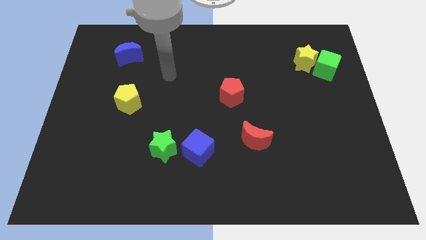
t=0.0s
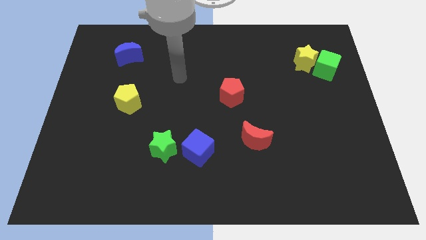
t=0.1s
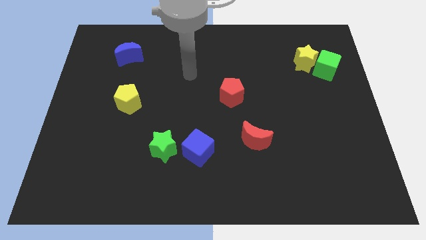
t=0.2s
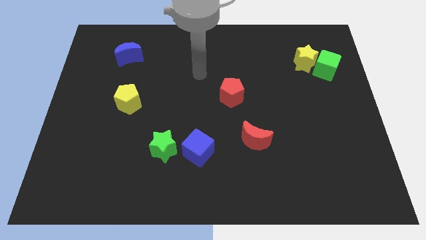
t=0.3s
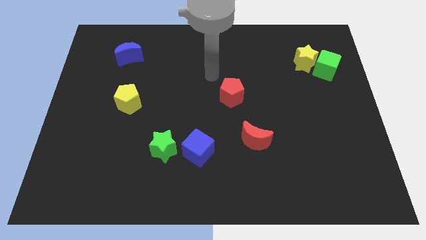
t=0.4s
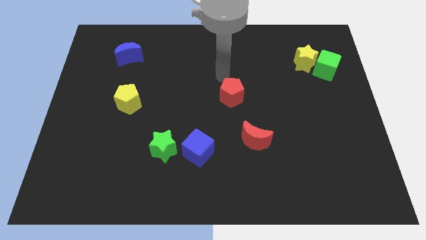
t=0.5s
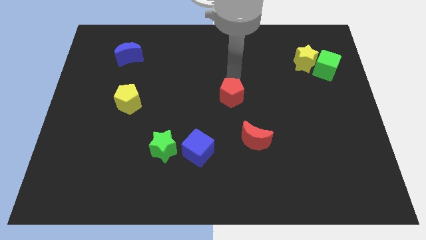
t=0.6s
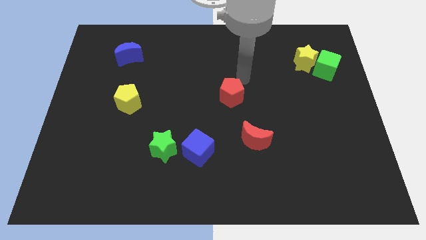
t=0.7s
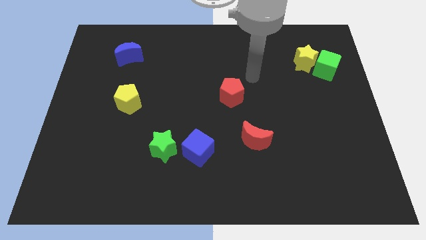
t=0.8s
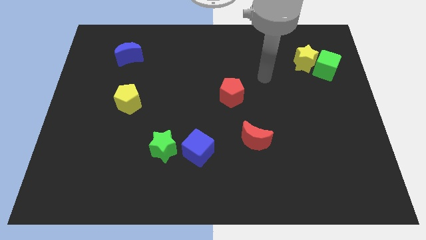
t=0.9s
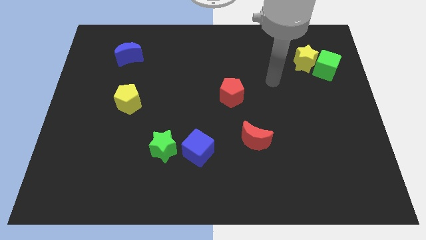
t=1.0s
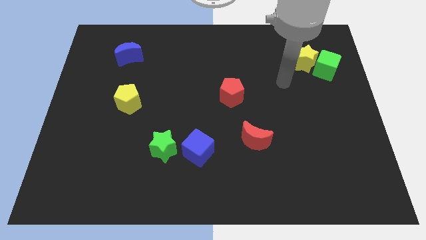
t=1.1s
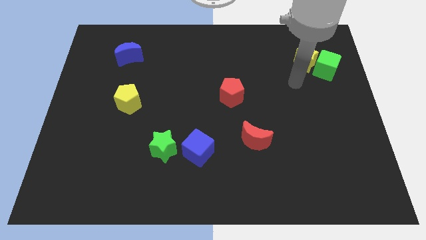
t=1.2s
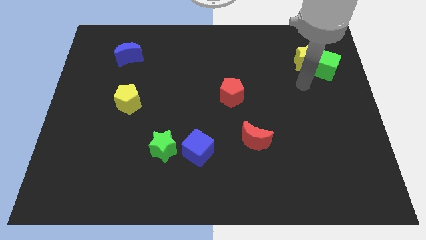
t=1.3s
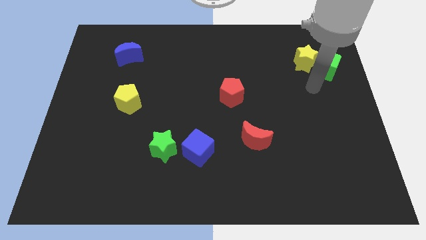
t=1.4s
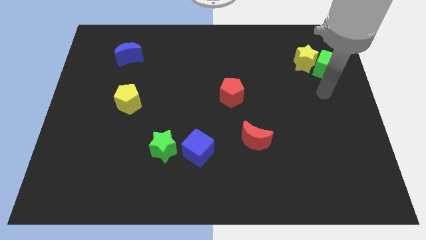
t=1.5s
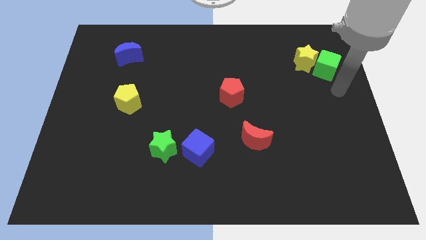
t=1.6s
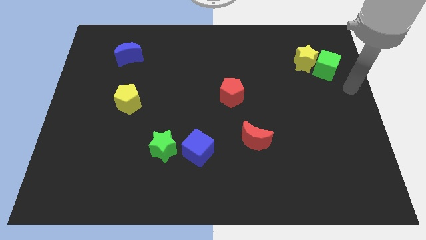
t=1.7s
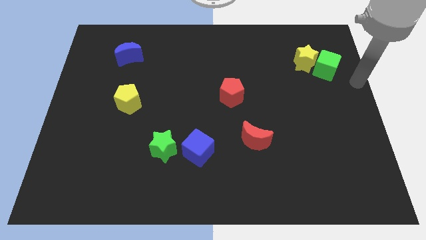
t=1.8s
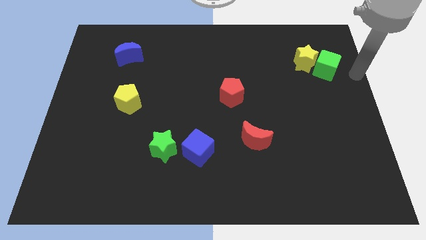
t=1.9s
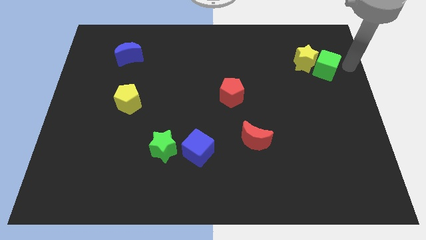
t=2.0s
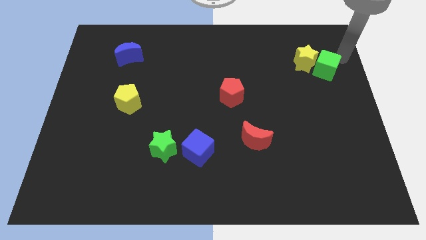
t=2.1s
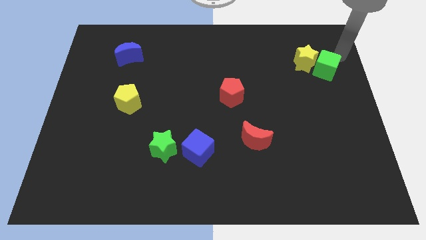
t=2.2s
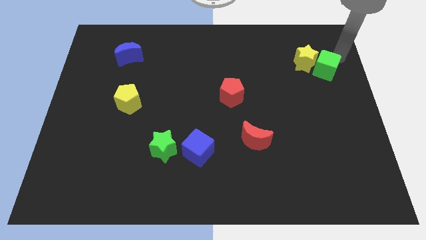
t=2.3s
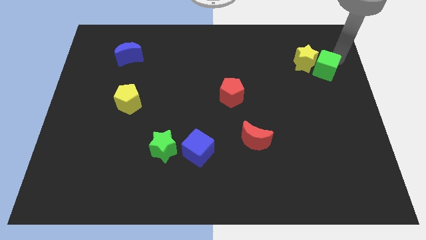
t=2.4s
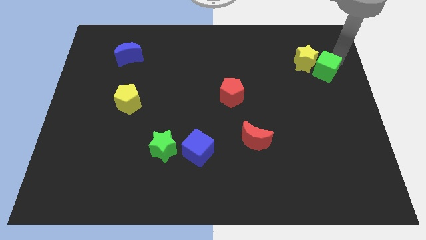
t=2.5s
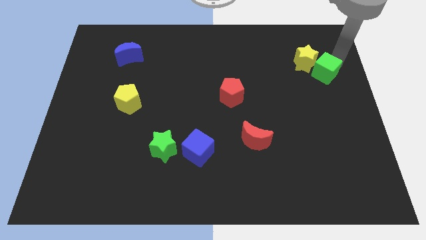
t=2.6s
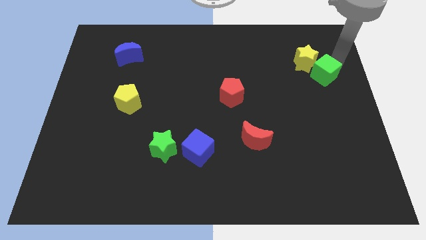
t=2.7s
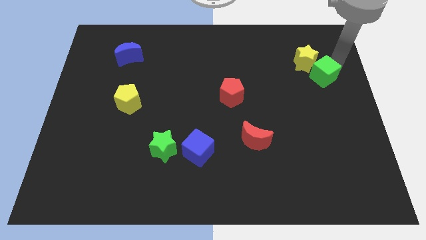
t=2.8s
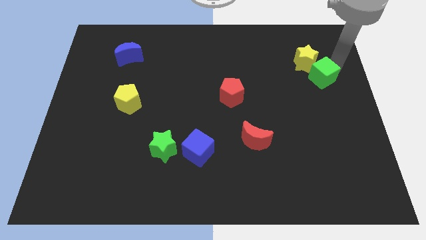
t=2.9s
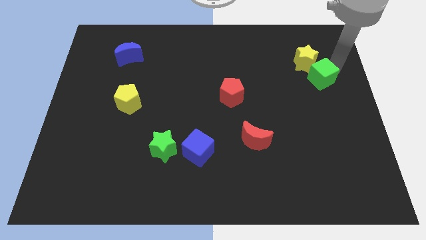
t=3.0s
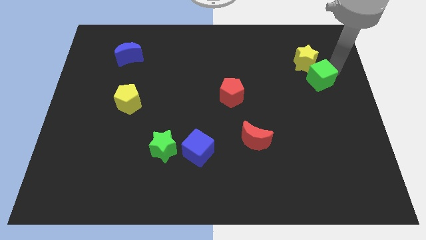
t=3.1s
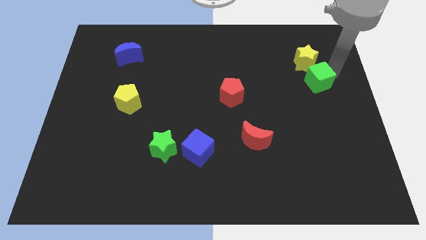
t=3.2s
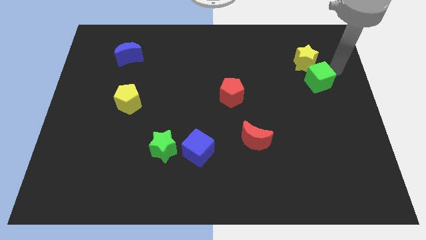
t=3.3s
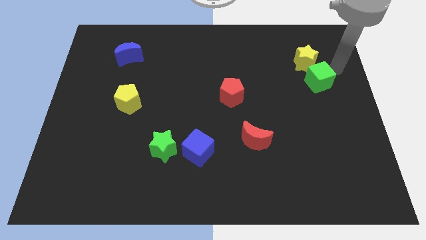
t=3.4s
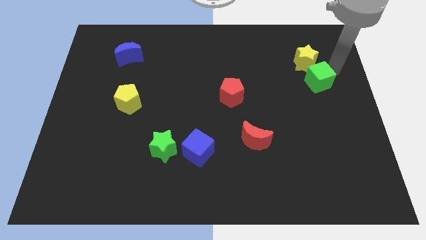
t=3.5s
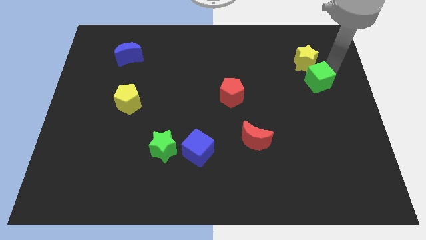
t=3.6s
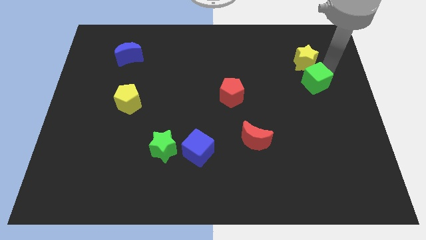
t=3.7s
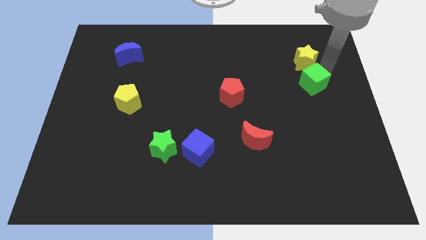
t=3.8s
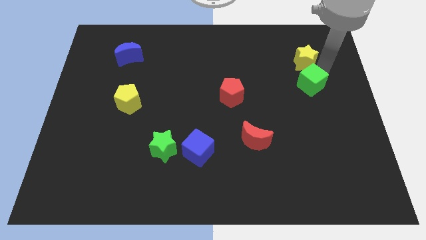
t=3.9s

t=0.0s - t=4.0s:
push the green cube down and to the left a little bit

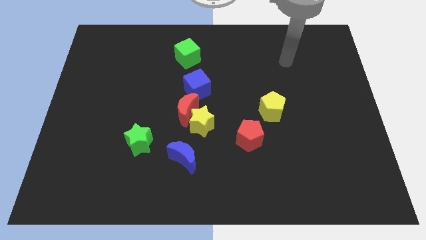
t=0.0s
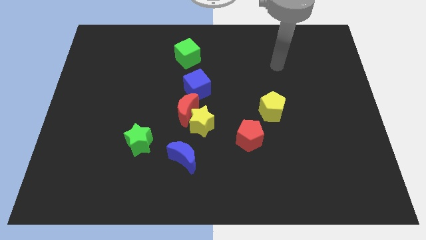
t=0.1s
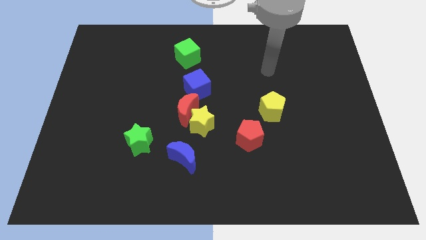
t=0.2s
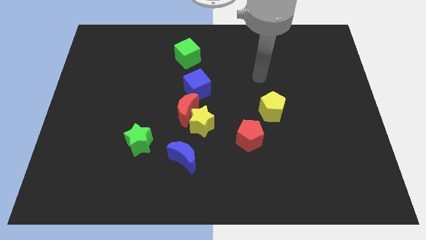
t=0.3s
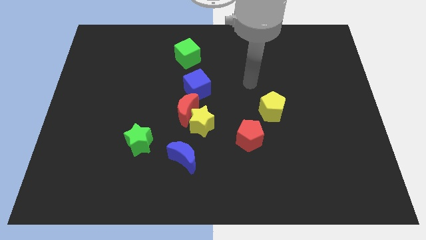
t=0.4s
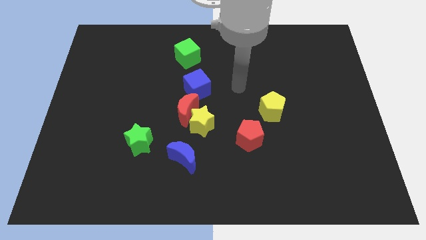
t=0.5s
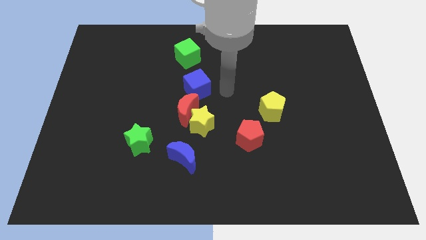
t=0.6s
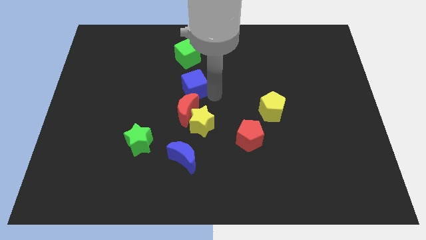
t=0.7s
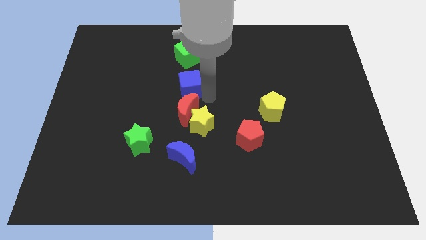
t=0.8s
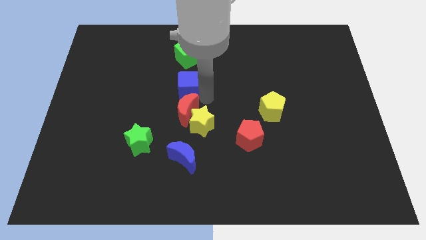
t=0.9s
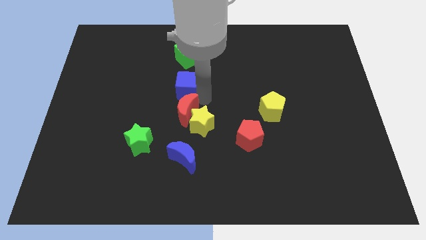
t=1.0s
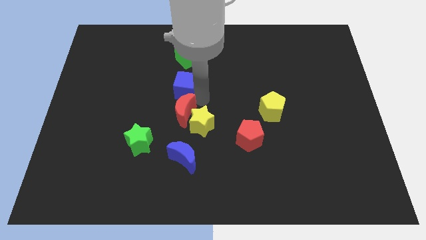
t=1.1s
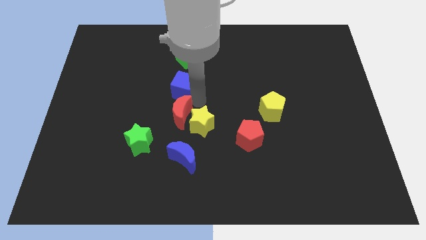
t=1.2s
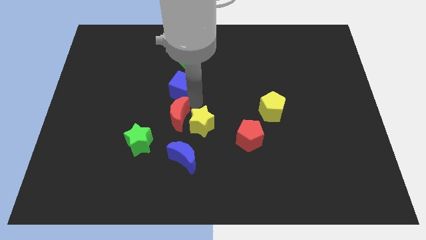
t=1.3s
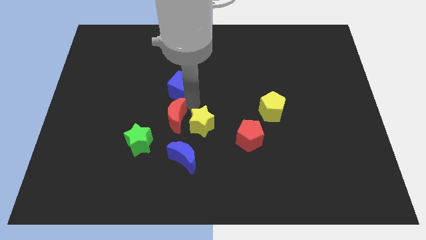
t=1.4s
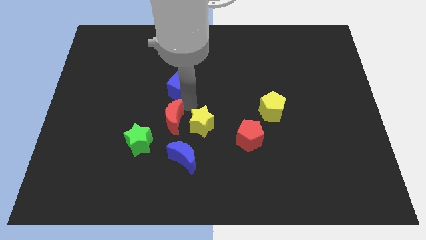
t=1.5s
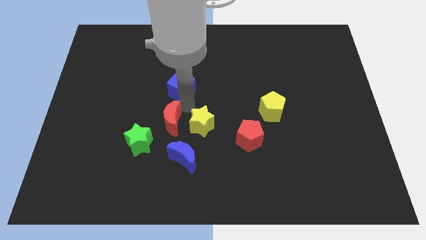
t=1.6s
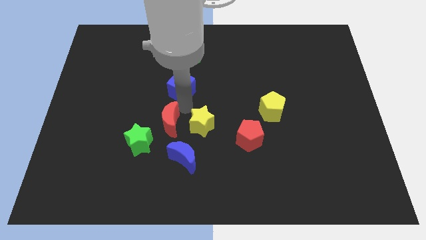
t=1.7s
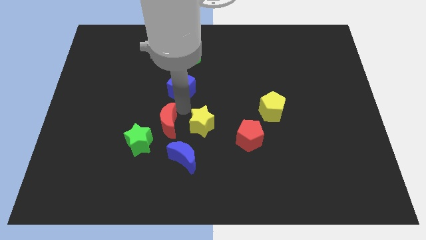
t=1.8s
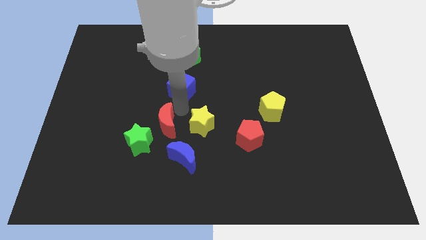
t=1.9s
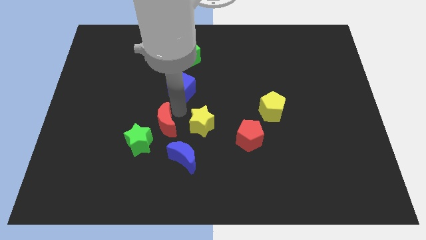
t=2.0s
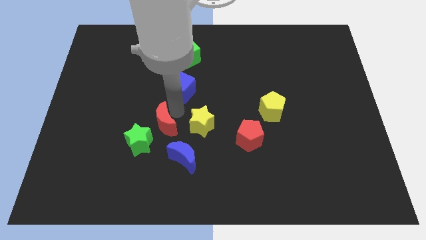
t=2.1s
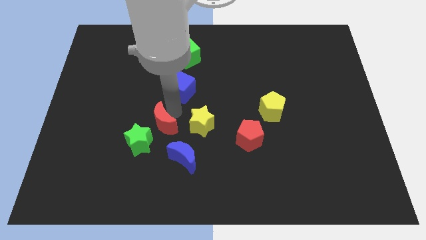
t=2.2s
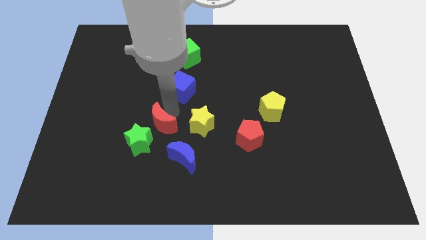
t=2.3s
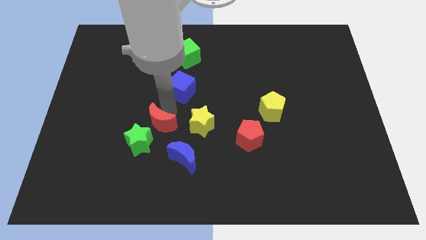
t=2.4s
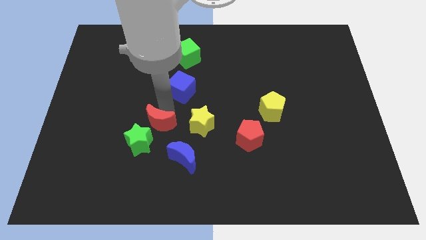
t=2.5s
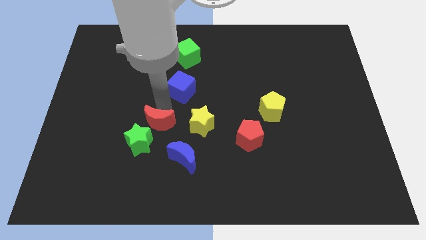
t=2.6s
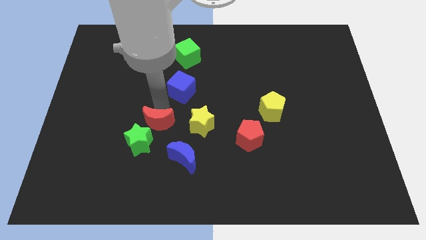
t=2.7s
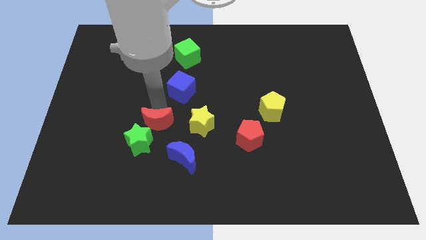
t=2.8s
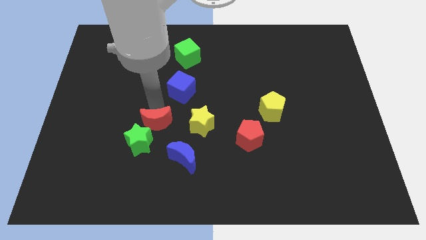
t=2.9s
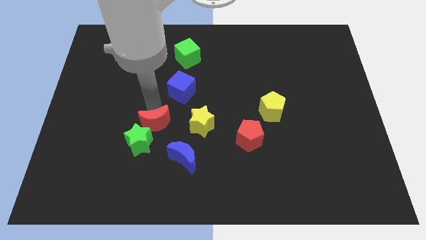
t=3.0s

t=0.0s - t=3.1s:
slightly move the red moon down and then to the left

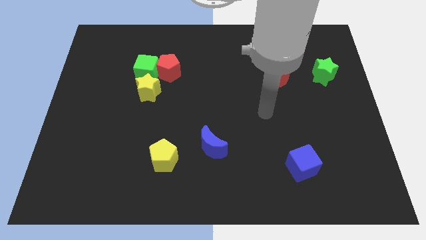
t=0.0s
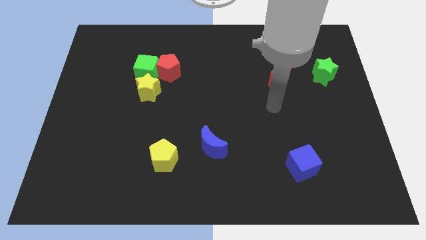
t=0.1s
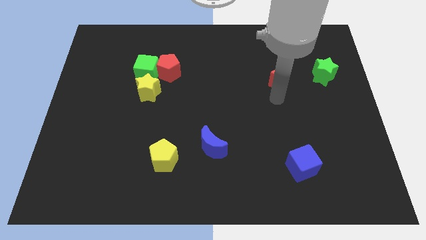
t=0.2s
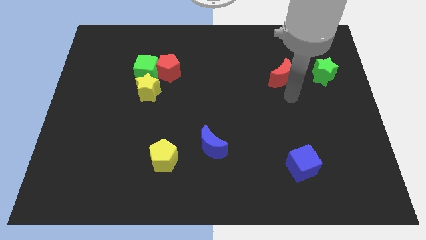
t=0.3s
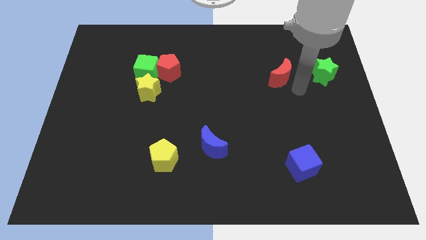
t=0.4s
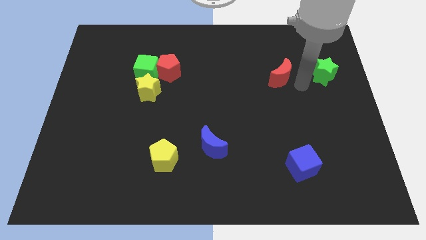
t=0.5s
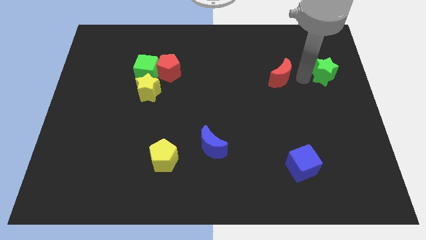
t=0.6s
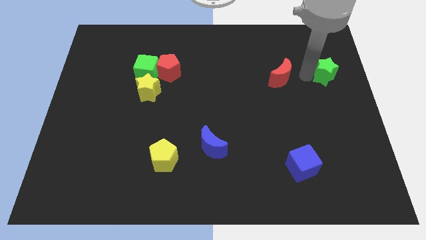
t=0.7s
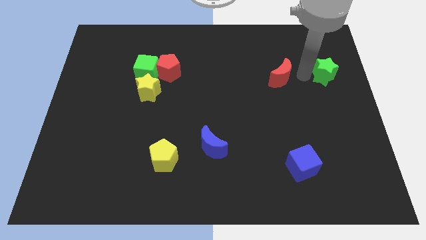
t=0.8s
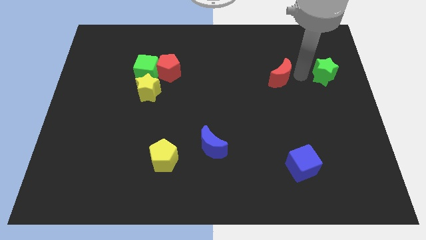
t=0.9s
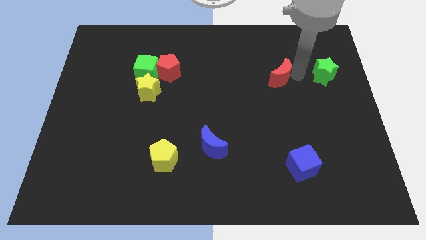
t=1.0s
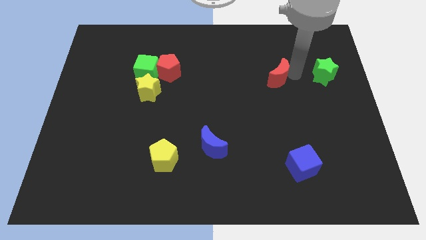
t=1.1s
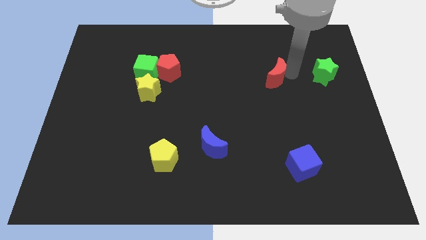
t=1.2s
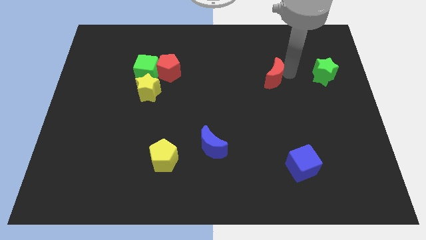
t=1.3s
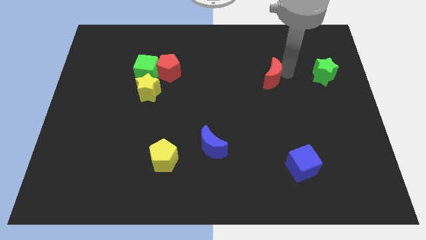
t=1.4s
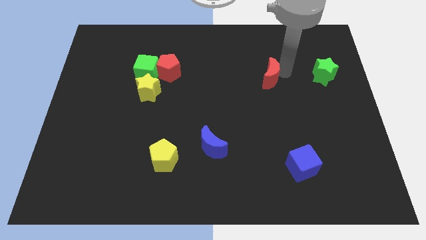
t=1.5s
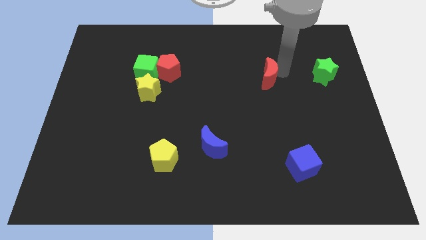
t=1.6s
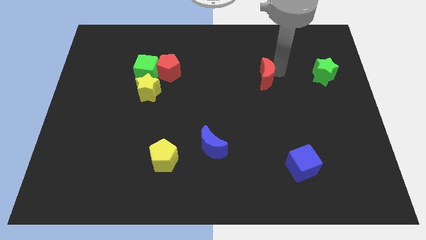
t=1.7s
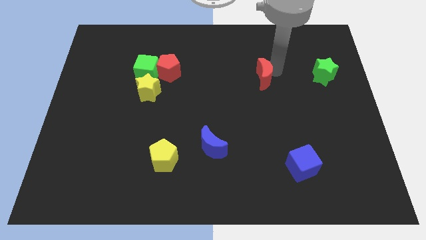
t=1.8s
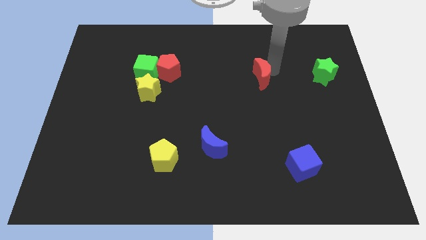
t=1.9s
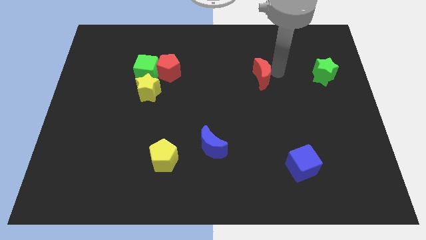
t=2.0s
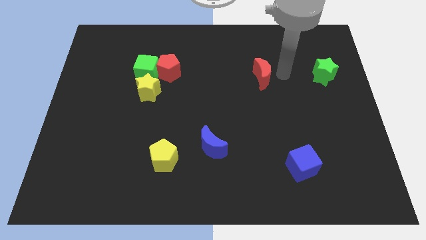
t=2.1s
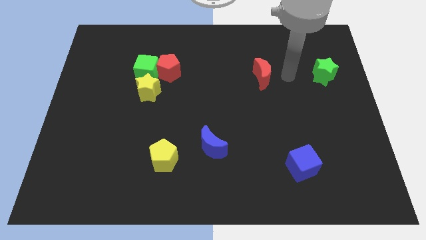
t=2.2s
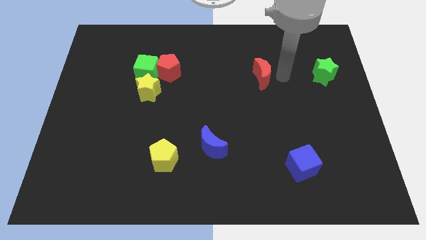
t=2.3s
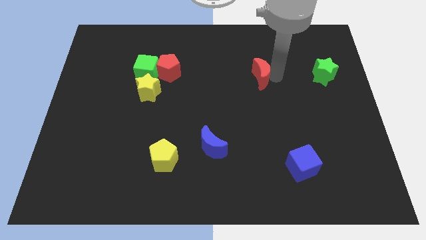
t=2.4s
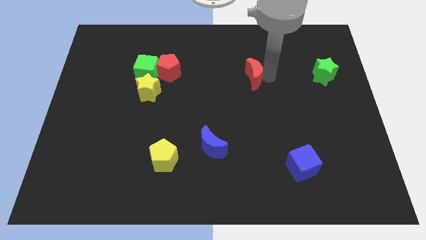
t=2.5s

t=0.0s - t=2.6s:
slide the red moon a little bit left
